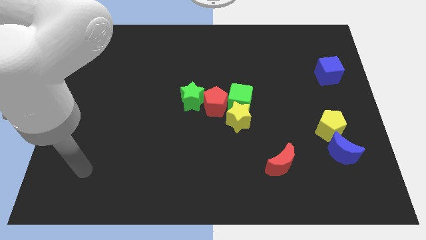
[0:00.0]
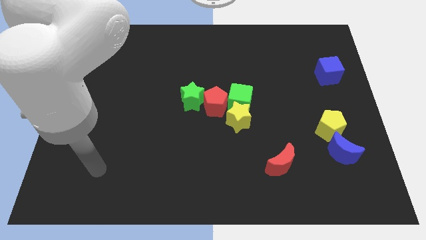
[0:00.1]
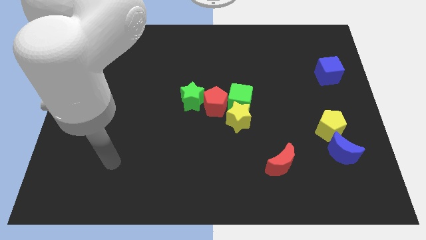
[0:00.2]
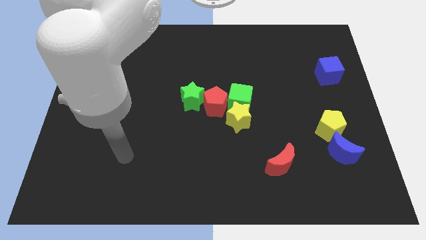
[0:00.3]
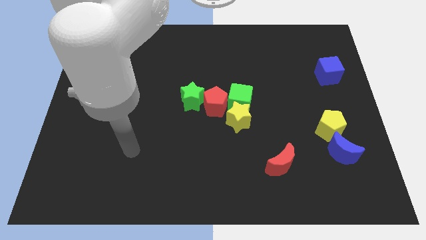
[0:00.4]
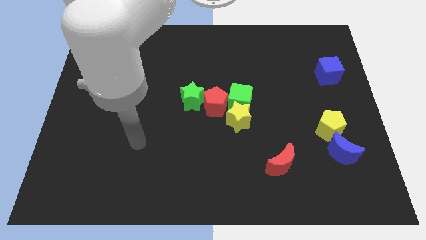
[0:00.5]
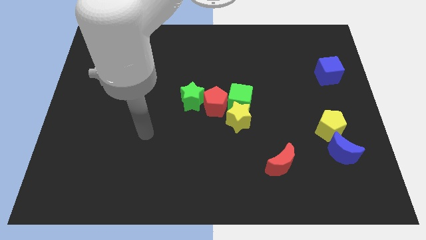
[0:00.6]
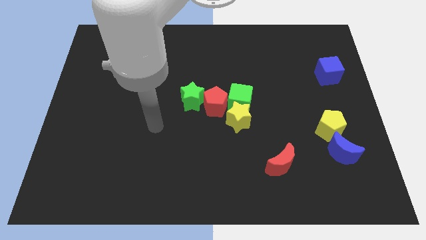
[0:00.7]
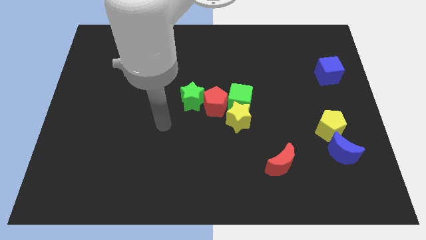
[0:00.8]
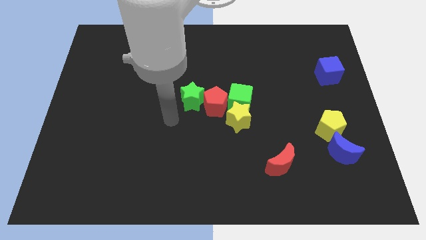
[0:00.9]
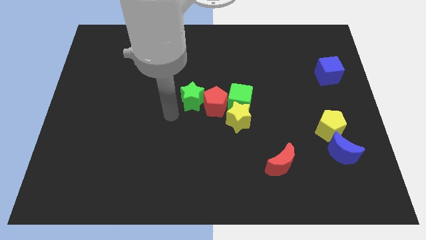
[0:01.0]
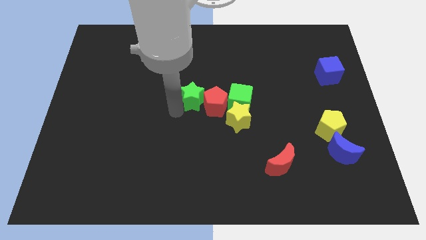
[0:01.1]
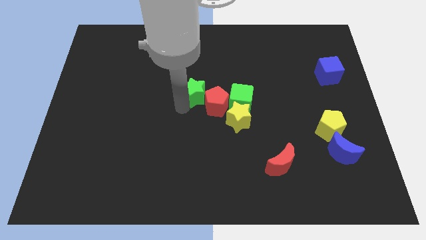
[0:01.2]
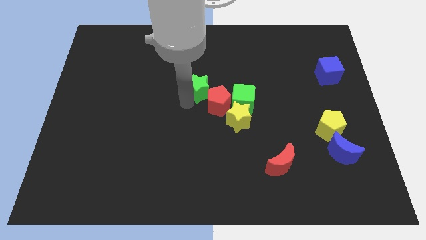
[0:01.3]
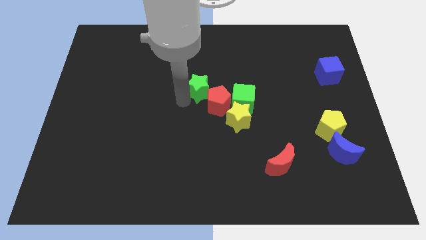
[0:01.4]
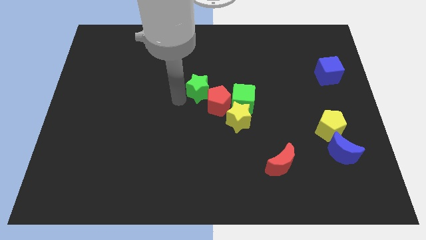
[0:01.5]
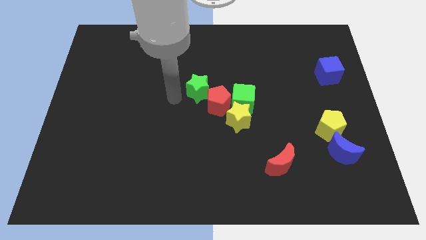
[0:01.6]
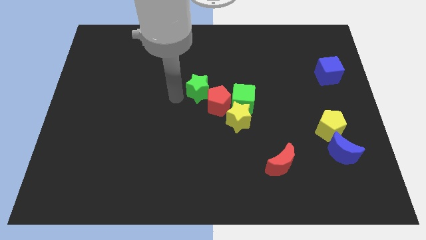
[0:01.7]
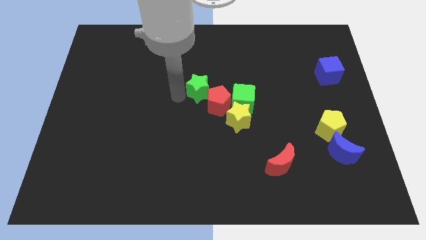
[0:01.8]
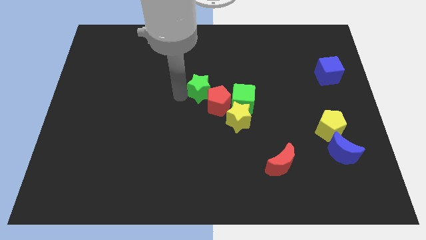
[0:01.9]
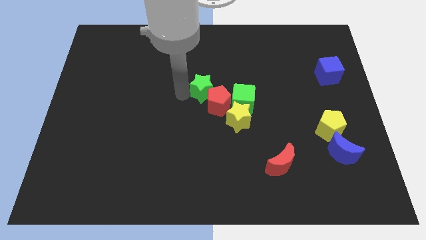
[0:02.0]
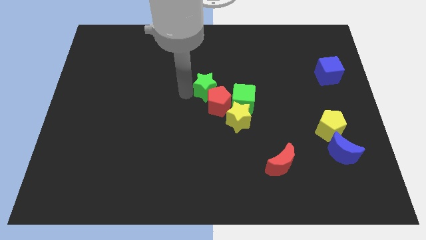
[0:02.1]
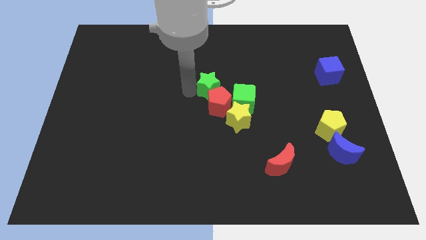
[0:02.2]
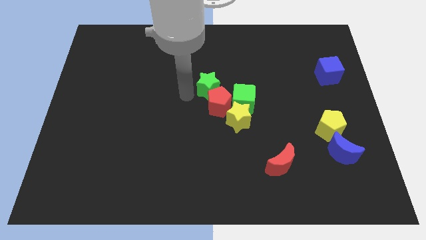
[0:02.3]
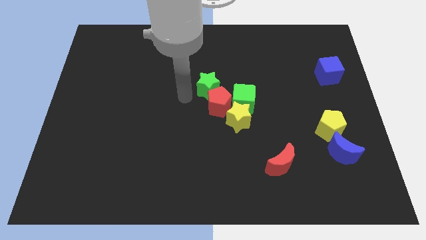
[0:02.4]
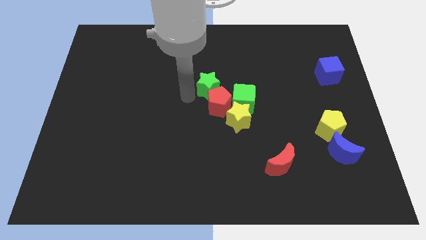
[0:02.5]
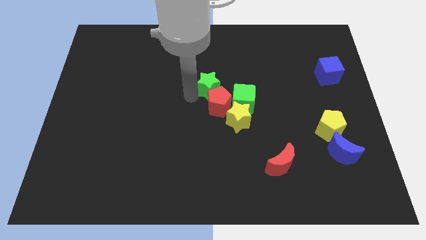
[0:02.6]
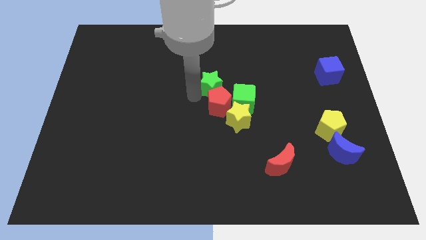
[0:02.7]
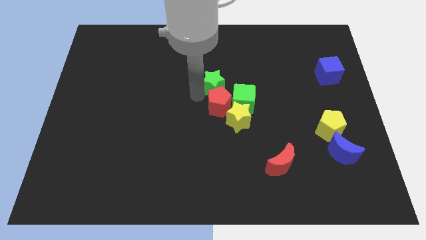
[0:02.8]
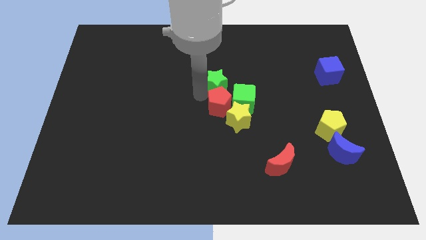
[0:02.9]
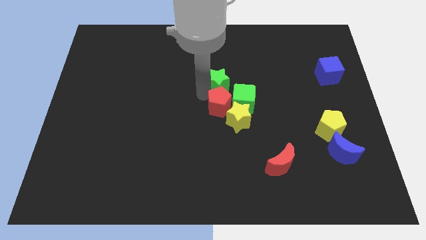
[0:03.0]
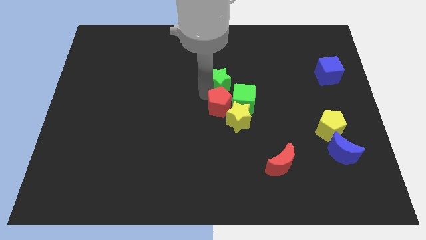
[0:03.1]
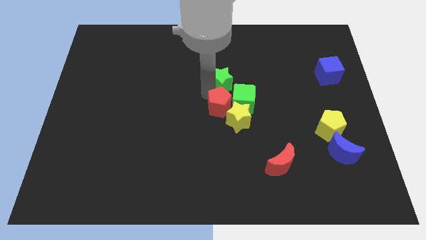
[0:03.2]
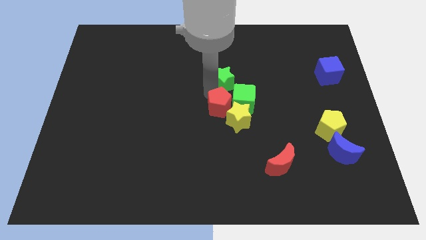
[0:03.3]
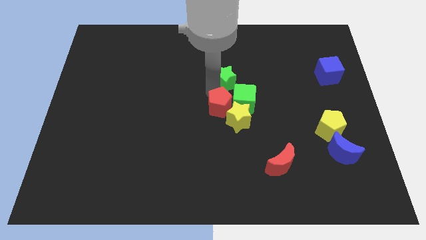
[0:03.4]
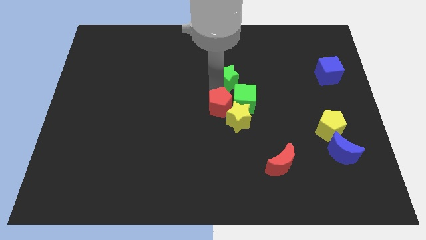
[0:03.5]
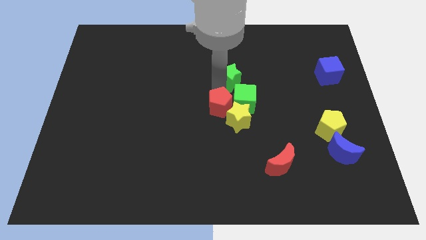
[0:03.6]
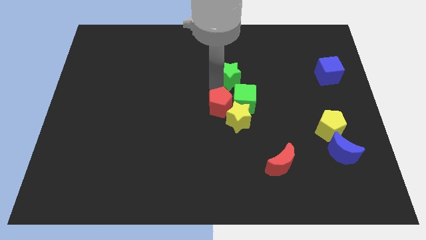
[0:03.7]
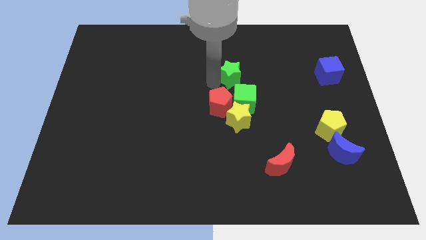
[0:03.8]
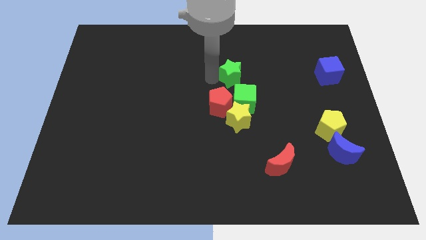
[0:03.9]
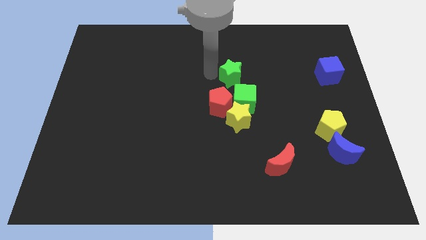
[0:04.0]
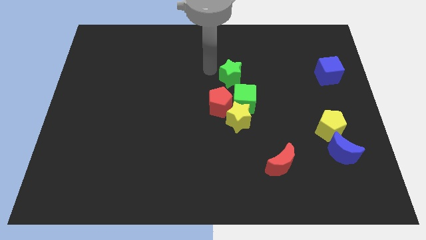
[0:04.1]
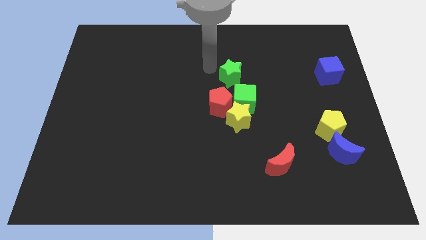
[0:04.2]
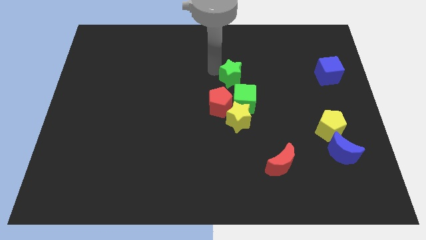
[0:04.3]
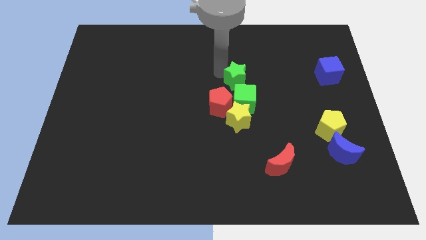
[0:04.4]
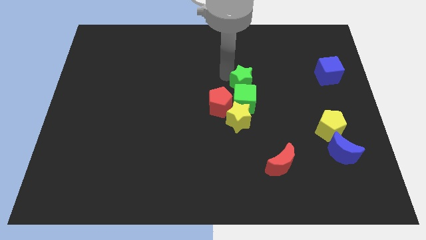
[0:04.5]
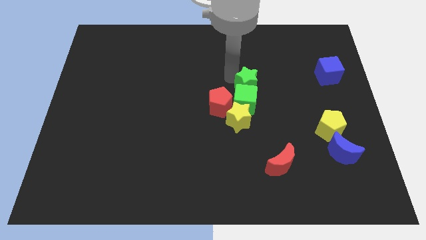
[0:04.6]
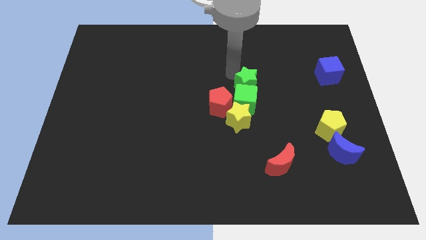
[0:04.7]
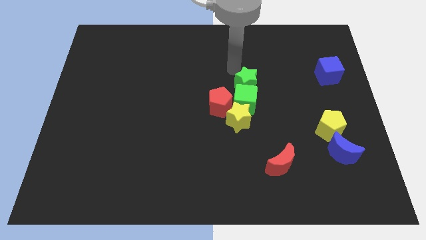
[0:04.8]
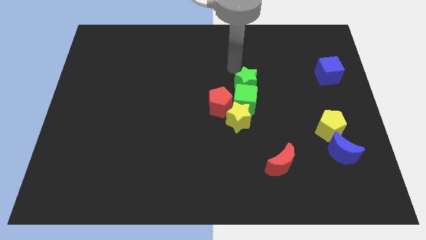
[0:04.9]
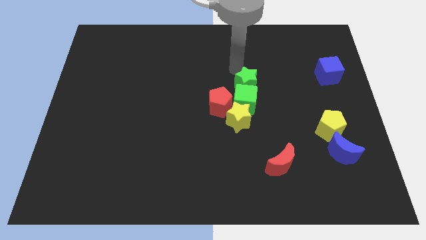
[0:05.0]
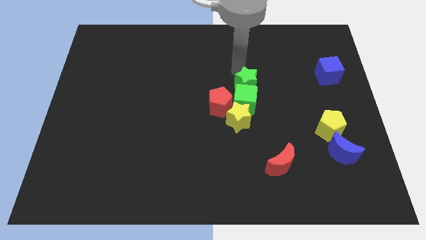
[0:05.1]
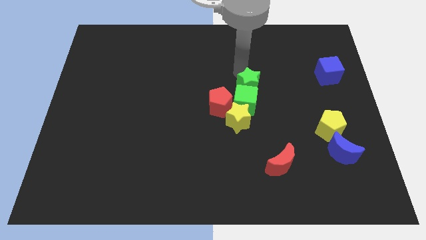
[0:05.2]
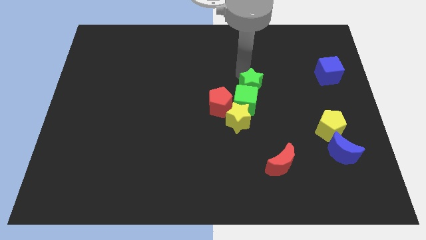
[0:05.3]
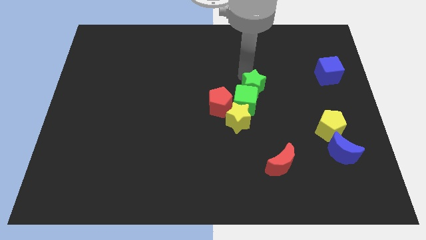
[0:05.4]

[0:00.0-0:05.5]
slide the green star to the top right of the yellow star
